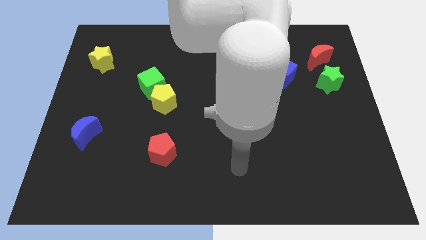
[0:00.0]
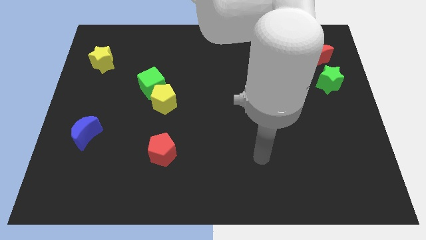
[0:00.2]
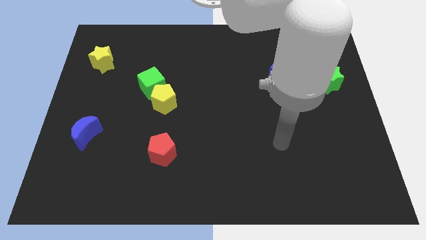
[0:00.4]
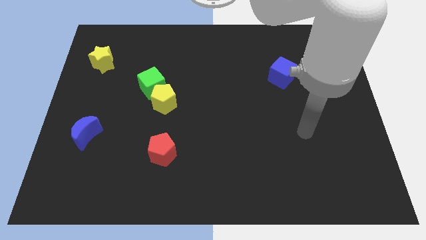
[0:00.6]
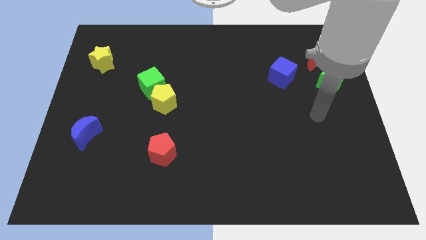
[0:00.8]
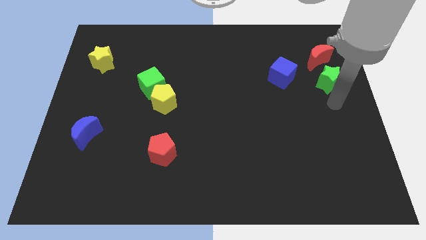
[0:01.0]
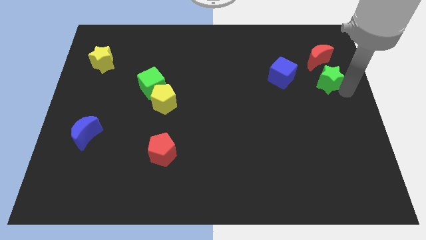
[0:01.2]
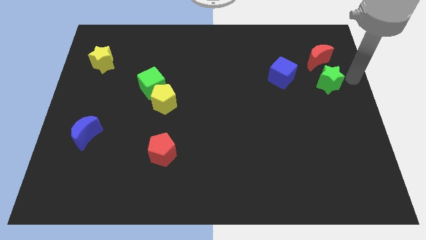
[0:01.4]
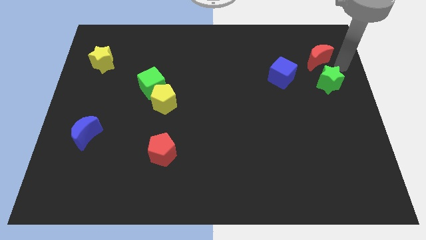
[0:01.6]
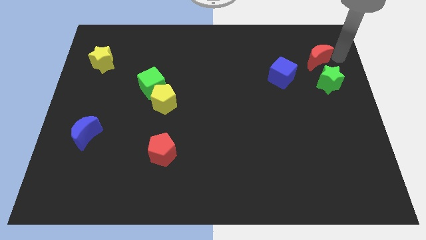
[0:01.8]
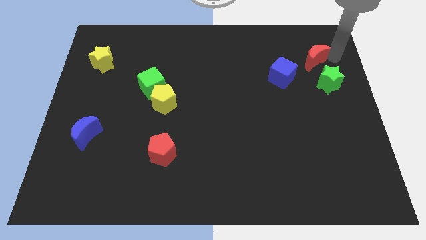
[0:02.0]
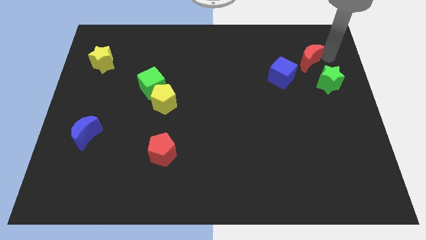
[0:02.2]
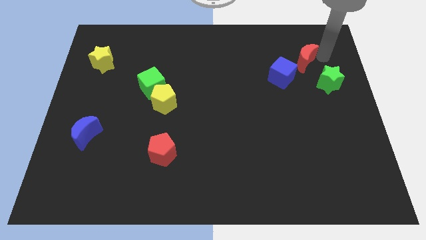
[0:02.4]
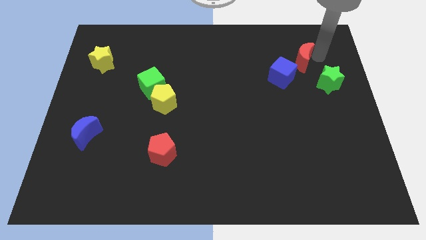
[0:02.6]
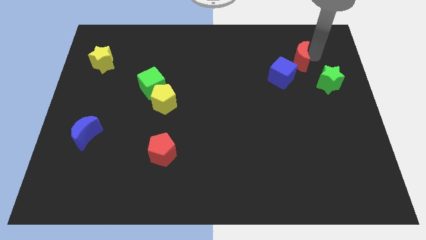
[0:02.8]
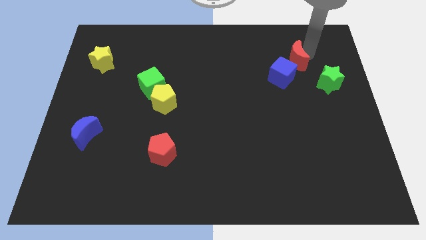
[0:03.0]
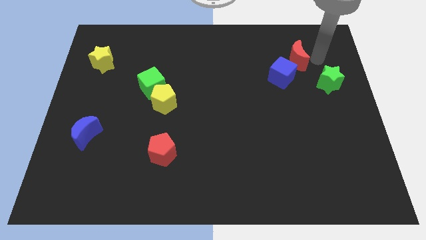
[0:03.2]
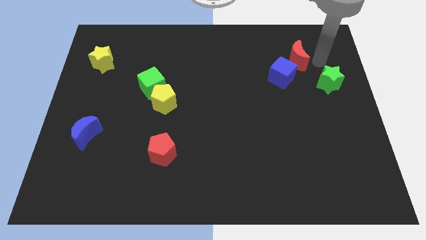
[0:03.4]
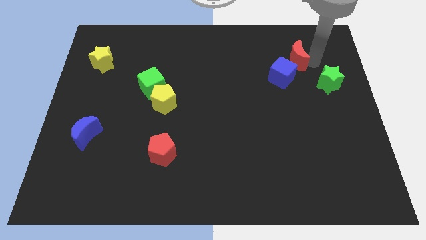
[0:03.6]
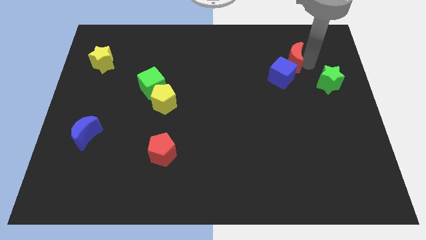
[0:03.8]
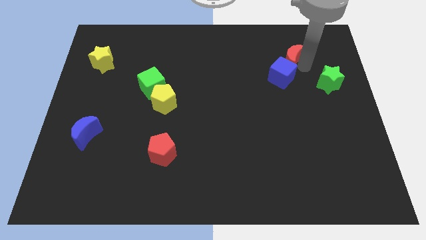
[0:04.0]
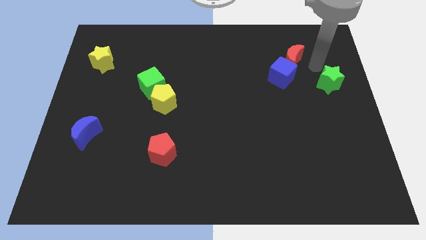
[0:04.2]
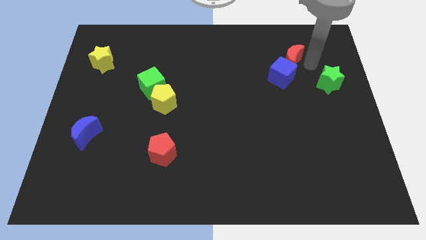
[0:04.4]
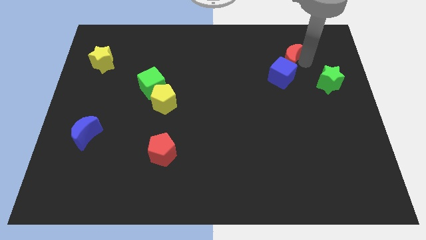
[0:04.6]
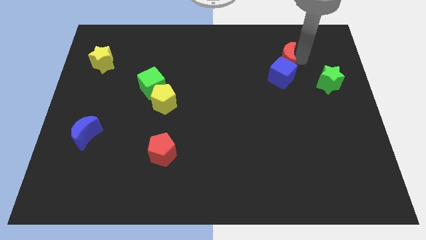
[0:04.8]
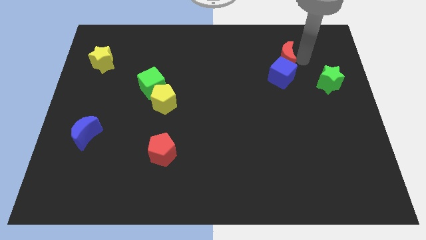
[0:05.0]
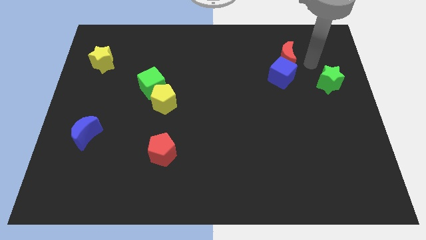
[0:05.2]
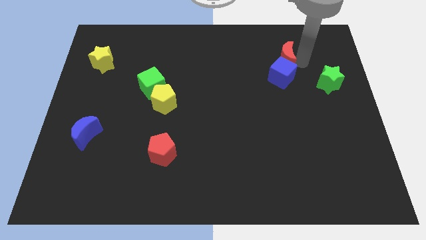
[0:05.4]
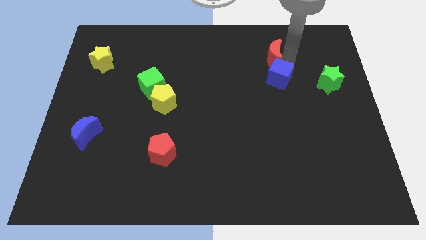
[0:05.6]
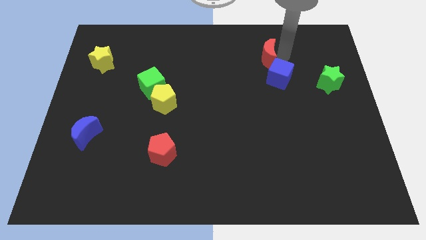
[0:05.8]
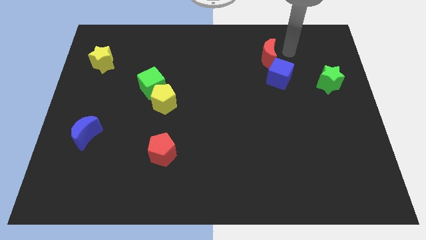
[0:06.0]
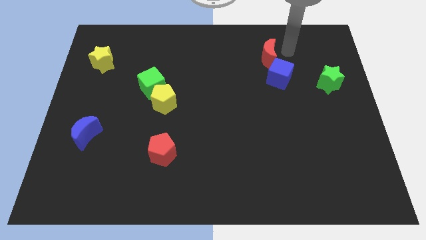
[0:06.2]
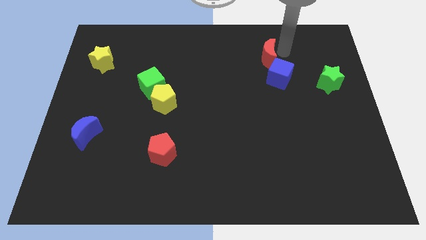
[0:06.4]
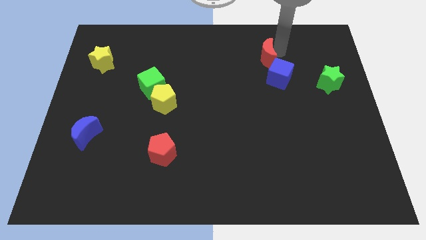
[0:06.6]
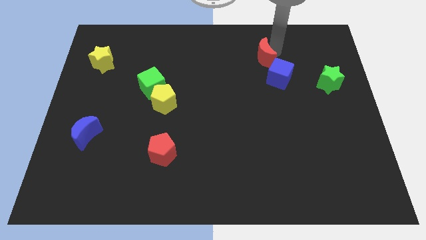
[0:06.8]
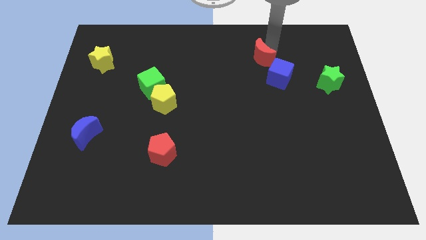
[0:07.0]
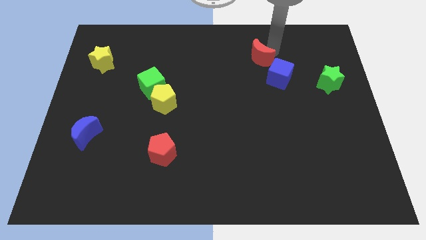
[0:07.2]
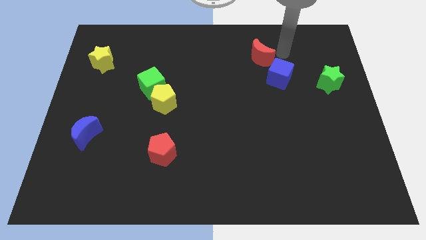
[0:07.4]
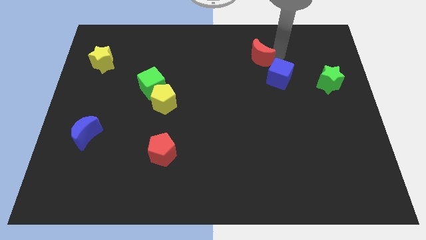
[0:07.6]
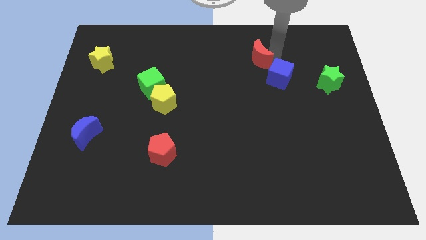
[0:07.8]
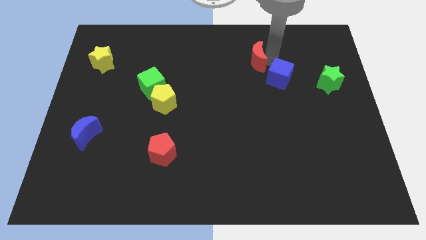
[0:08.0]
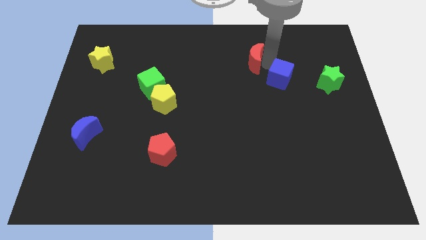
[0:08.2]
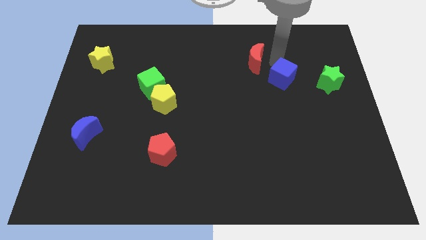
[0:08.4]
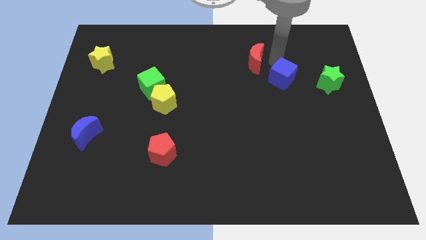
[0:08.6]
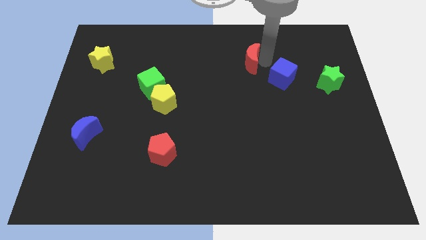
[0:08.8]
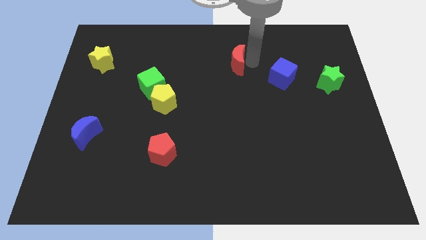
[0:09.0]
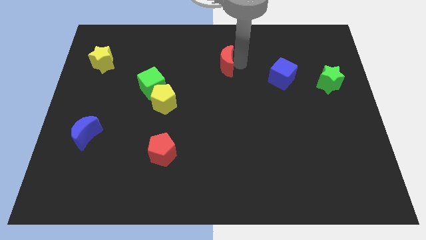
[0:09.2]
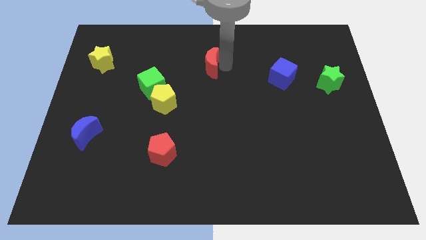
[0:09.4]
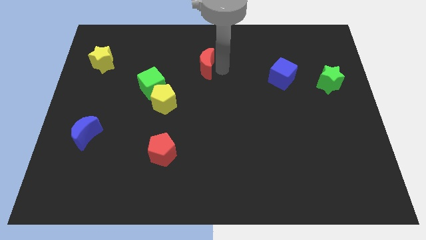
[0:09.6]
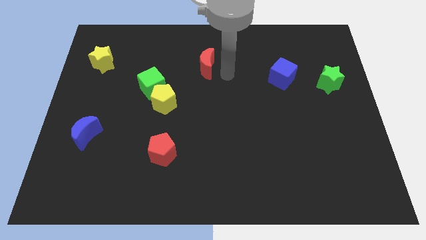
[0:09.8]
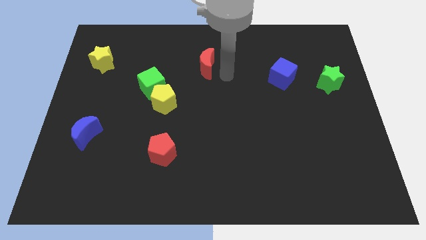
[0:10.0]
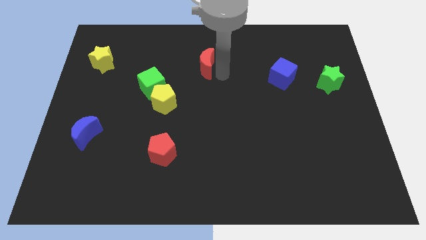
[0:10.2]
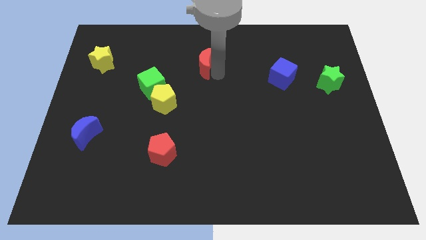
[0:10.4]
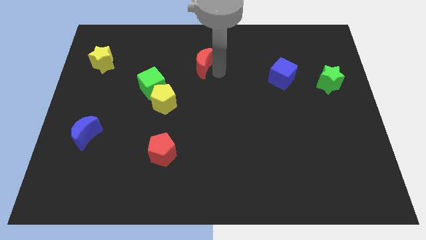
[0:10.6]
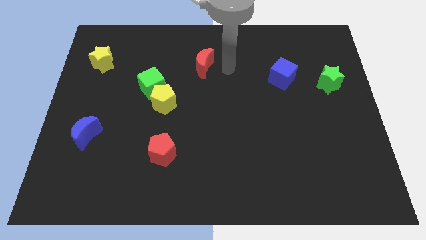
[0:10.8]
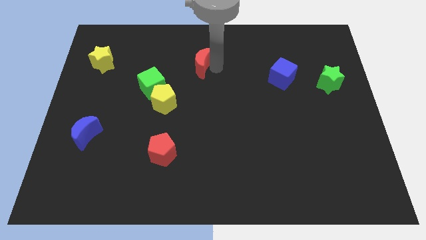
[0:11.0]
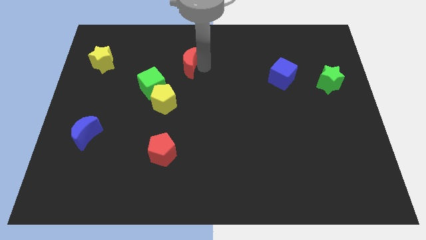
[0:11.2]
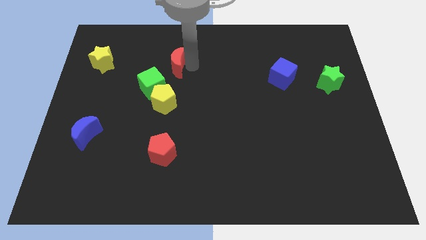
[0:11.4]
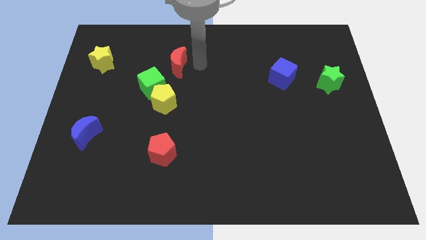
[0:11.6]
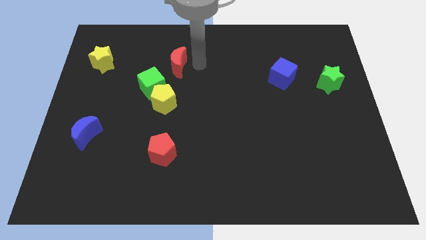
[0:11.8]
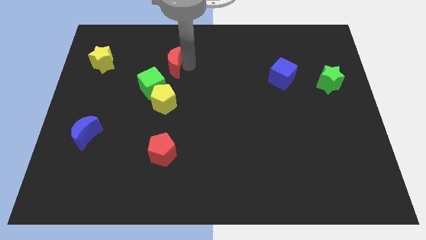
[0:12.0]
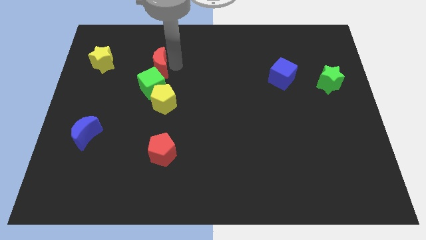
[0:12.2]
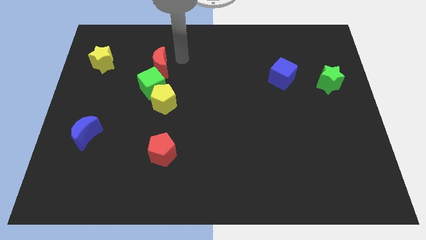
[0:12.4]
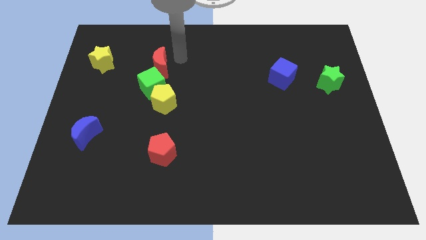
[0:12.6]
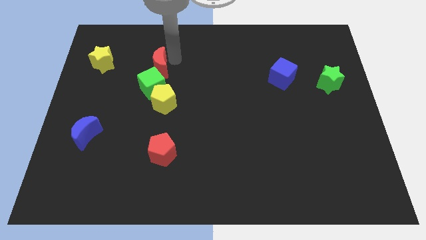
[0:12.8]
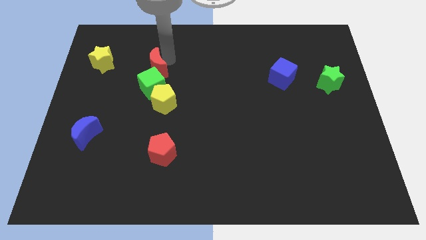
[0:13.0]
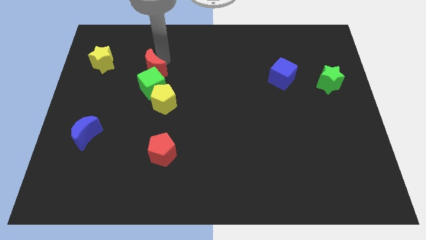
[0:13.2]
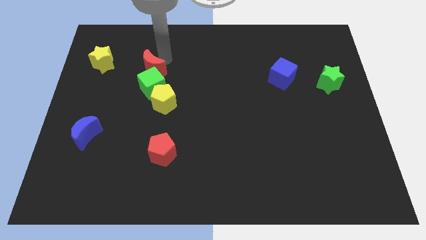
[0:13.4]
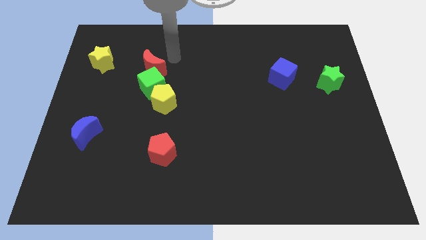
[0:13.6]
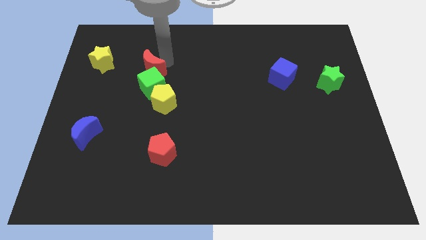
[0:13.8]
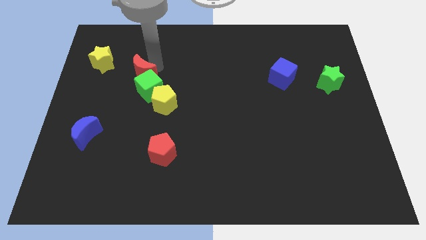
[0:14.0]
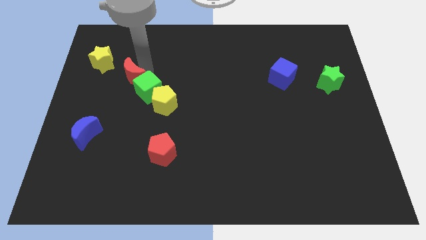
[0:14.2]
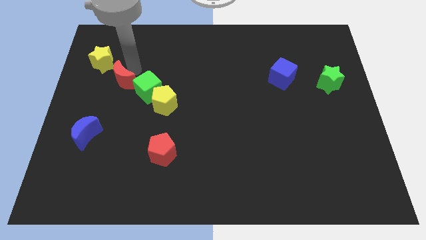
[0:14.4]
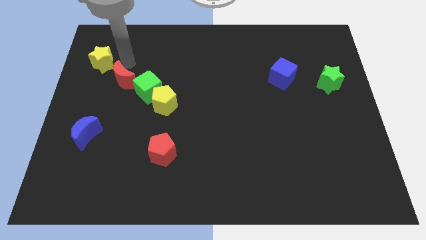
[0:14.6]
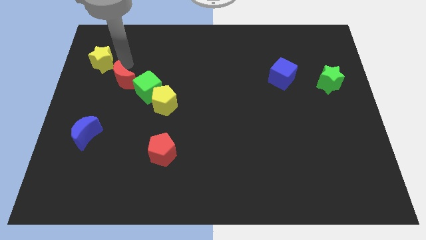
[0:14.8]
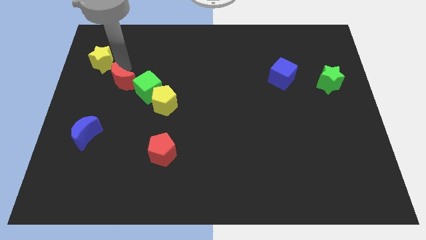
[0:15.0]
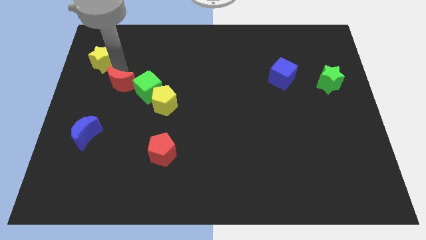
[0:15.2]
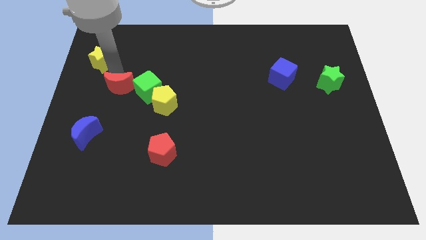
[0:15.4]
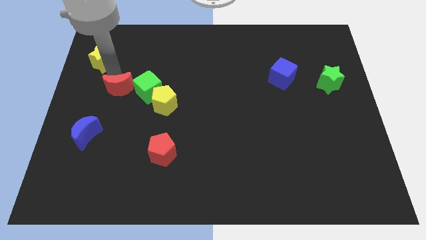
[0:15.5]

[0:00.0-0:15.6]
push the red moon just left of the yellow pentagon
